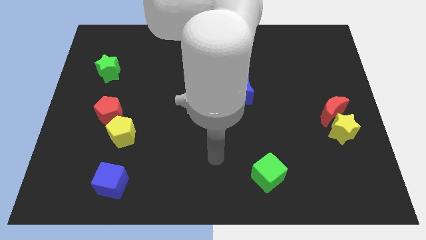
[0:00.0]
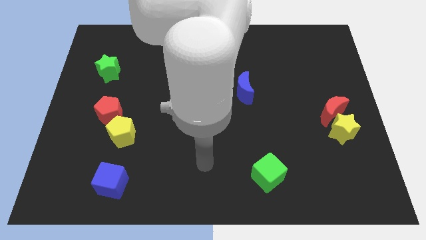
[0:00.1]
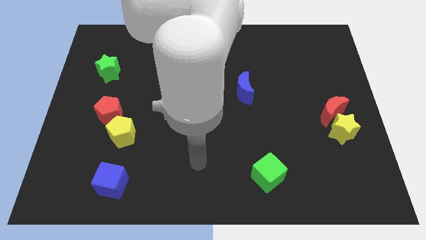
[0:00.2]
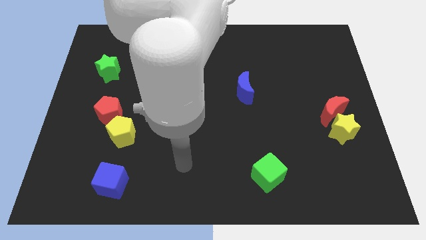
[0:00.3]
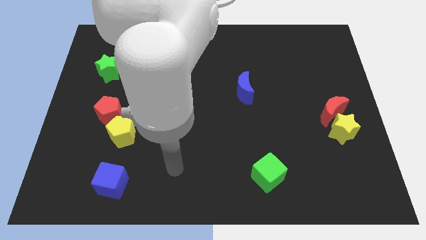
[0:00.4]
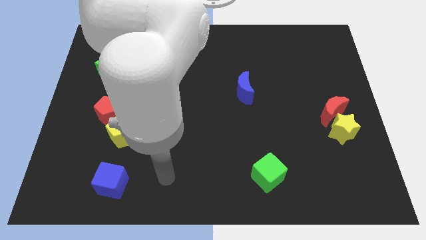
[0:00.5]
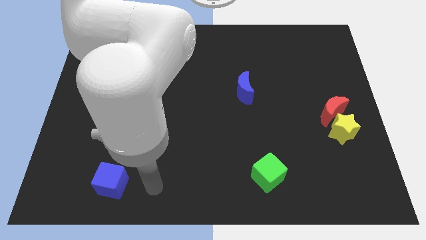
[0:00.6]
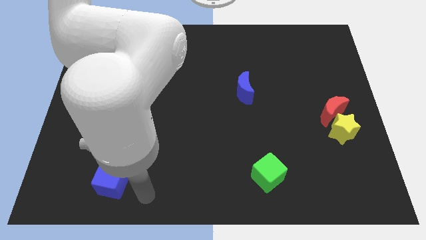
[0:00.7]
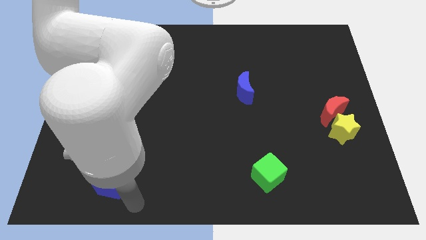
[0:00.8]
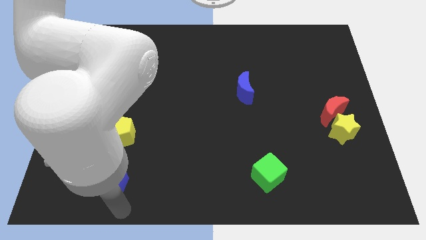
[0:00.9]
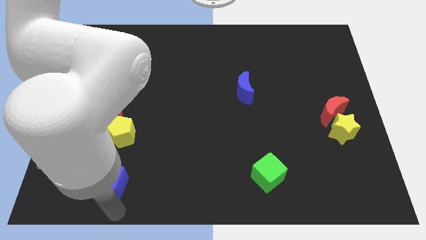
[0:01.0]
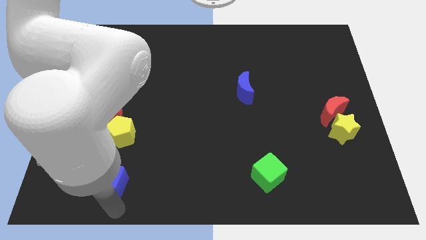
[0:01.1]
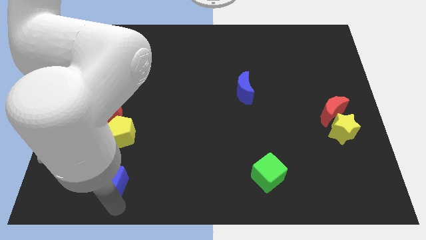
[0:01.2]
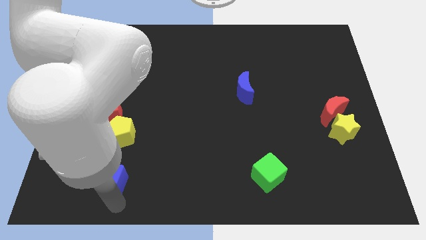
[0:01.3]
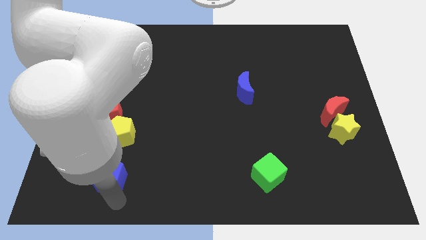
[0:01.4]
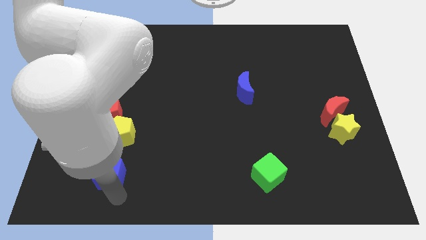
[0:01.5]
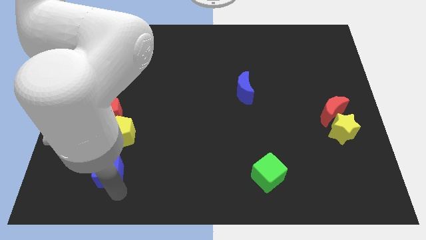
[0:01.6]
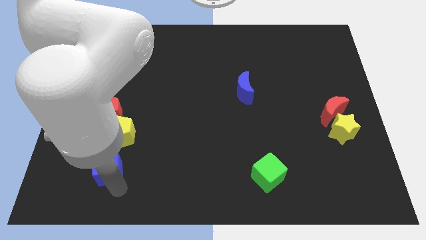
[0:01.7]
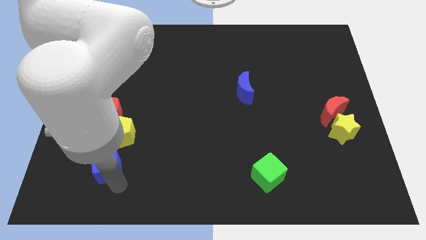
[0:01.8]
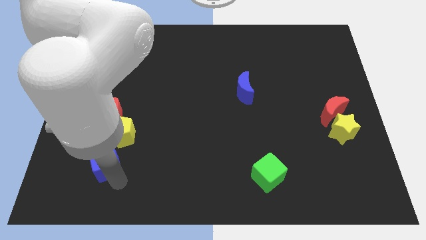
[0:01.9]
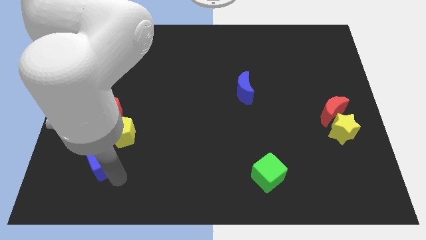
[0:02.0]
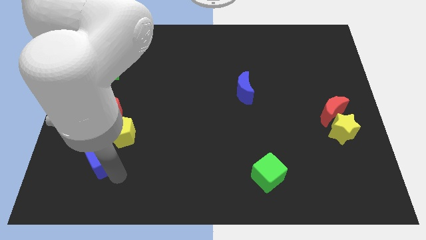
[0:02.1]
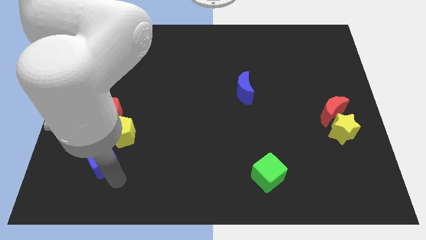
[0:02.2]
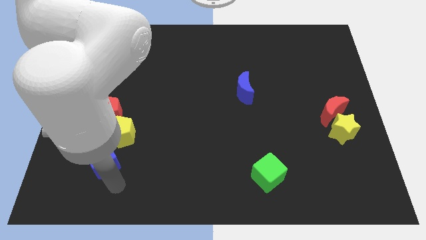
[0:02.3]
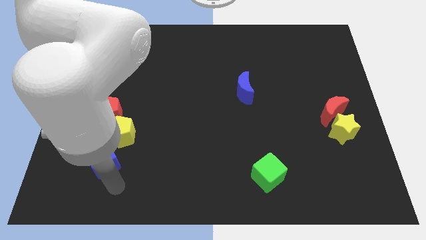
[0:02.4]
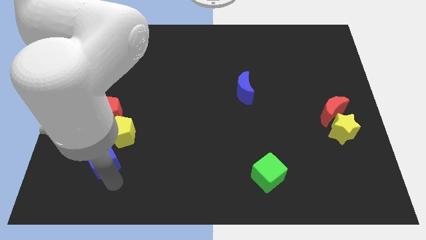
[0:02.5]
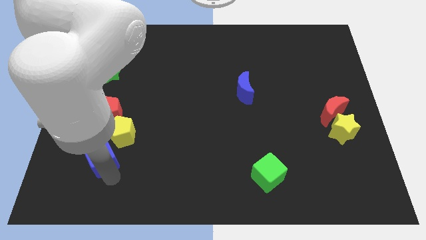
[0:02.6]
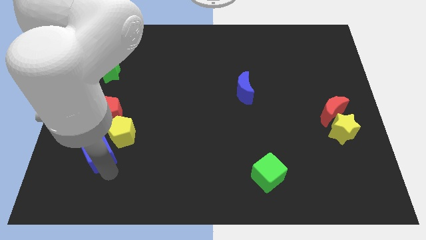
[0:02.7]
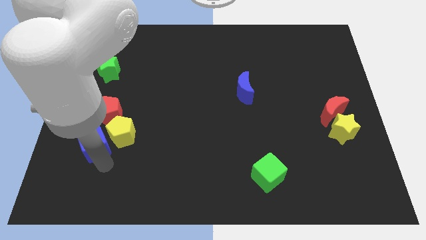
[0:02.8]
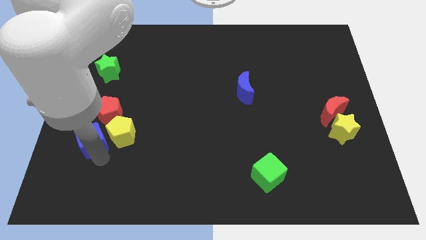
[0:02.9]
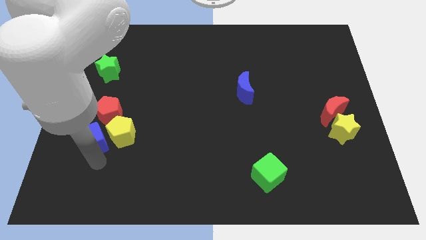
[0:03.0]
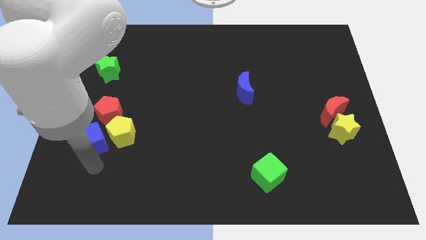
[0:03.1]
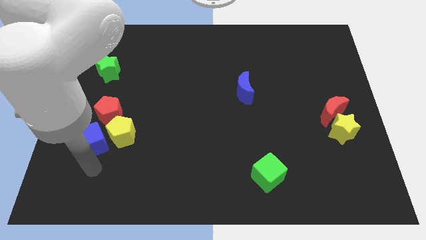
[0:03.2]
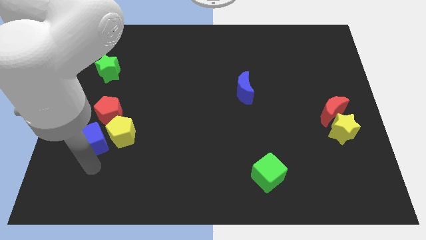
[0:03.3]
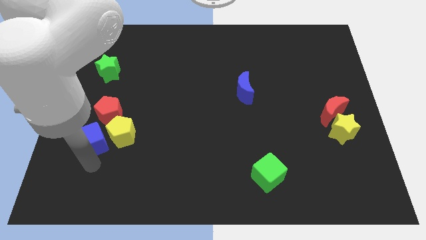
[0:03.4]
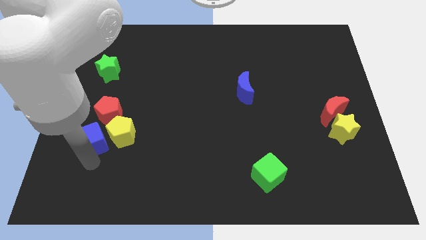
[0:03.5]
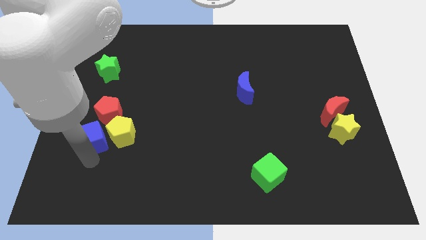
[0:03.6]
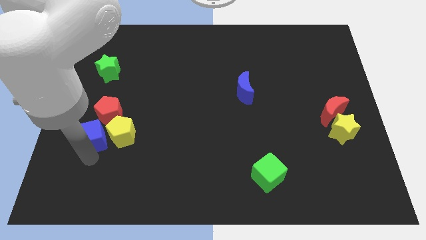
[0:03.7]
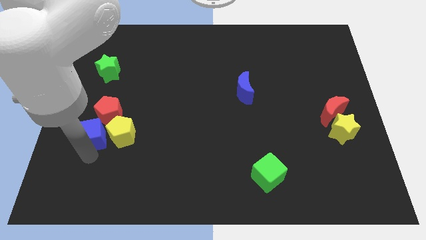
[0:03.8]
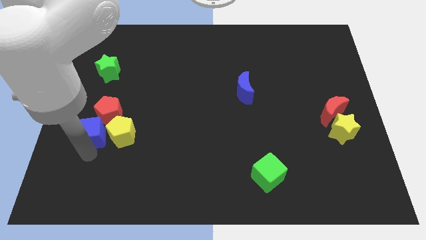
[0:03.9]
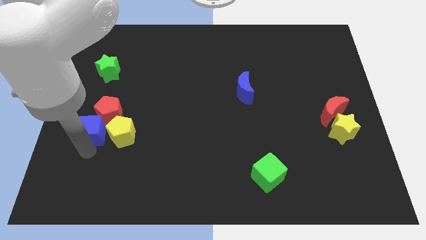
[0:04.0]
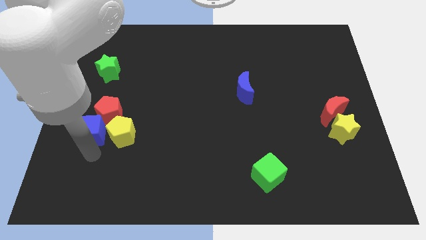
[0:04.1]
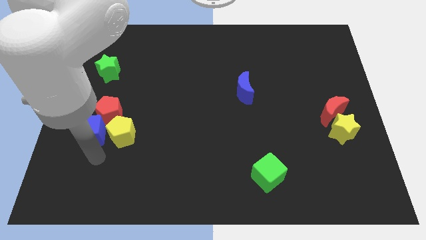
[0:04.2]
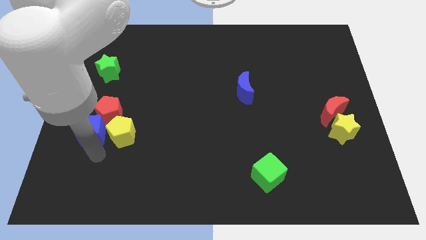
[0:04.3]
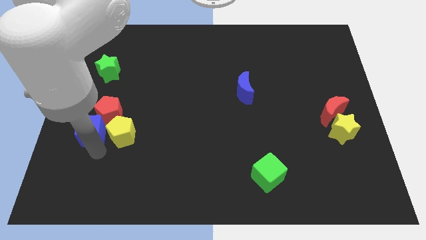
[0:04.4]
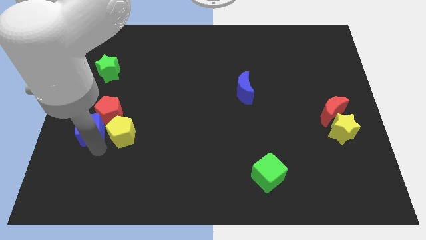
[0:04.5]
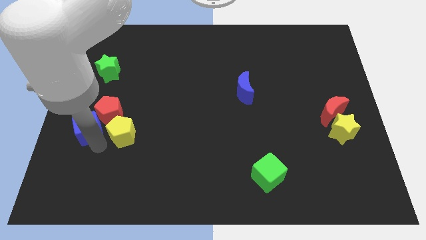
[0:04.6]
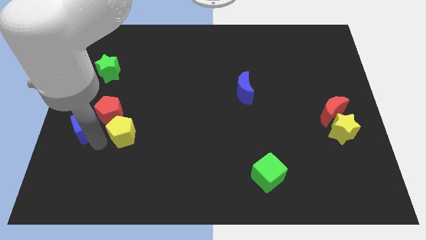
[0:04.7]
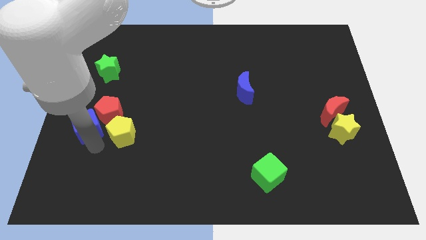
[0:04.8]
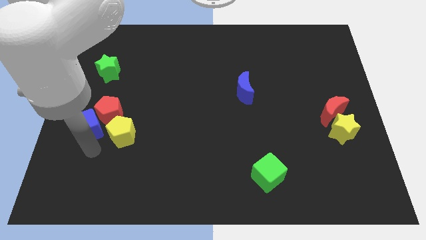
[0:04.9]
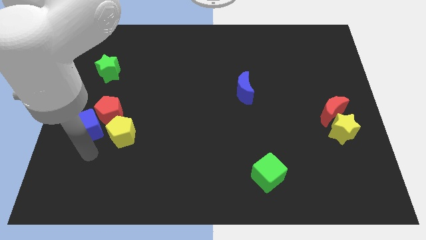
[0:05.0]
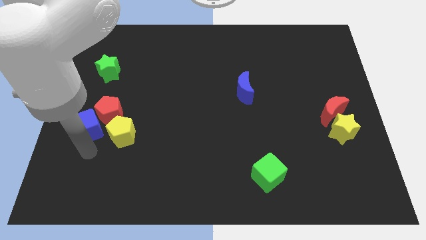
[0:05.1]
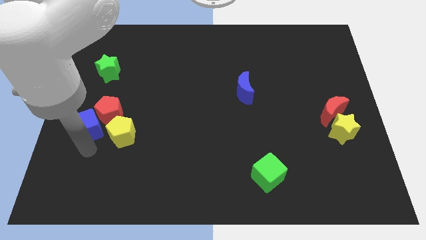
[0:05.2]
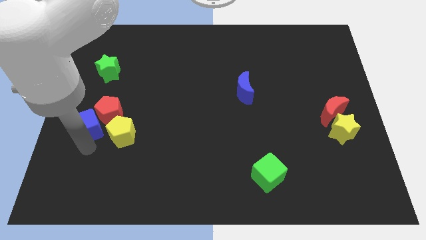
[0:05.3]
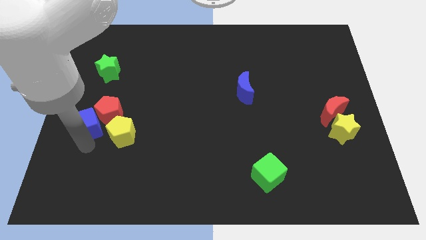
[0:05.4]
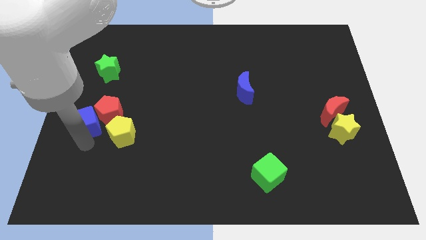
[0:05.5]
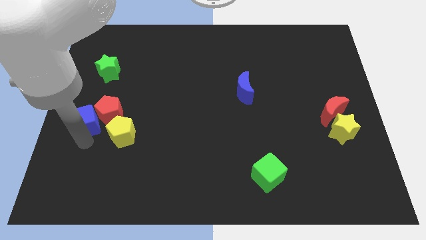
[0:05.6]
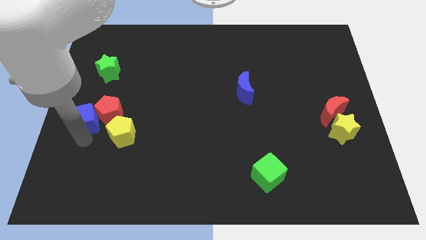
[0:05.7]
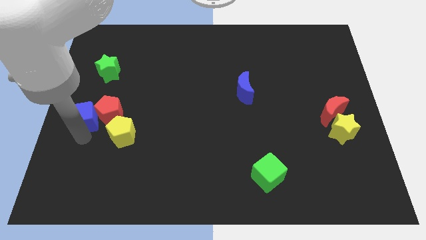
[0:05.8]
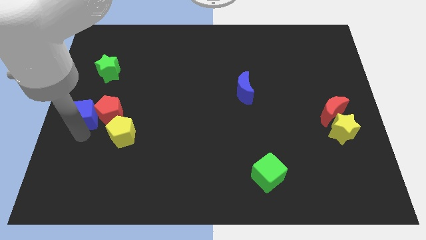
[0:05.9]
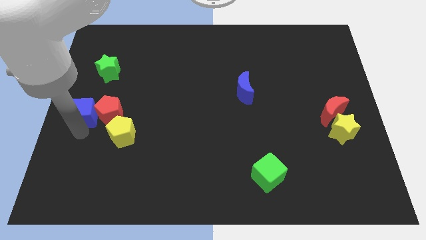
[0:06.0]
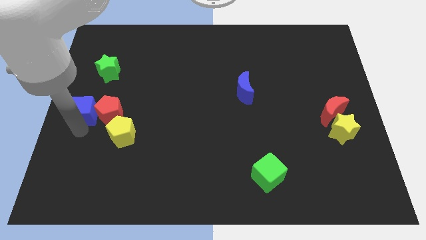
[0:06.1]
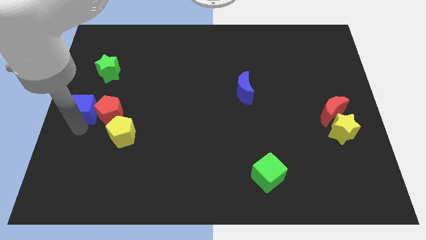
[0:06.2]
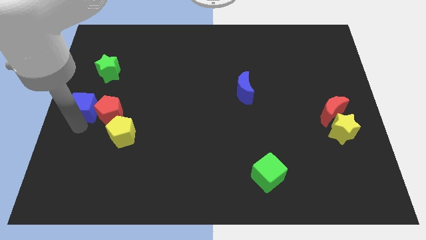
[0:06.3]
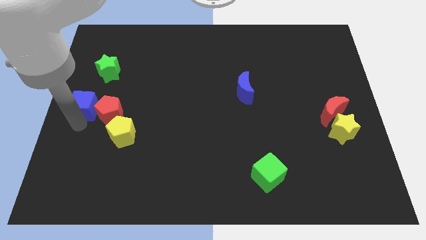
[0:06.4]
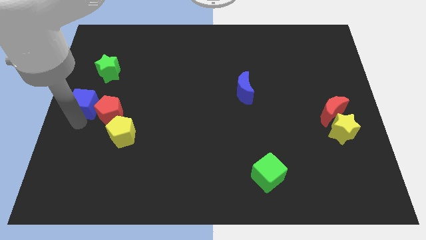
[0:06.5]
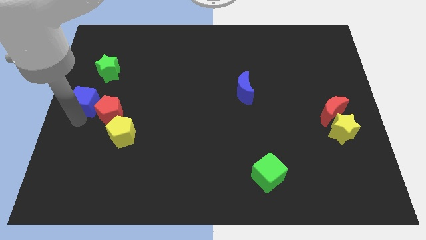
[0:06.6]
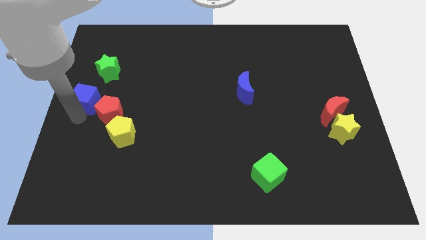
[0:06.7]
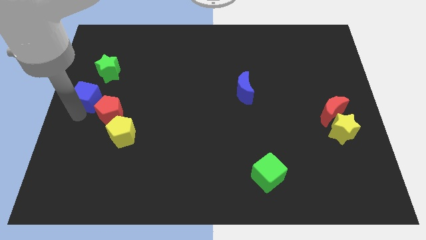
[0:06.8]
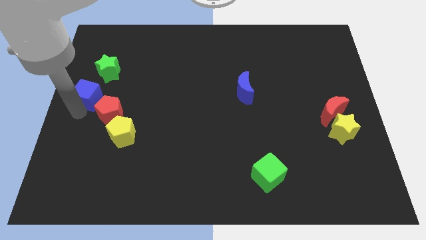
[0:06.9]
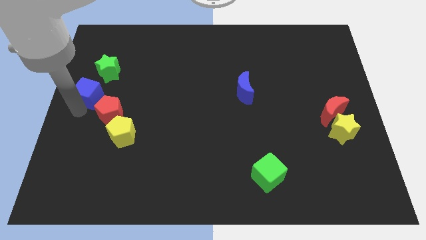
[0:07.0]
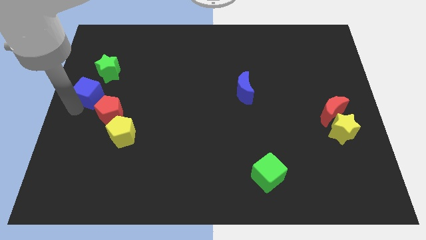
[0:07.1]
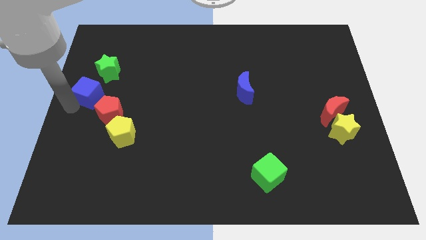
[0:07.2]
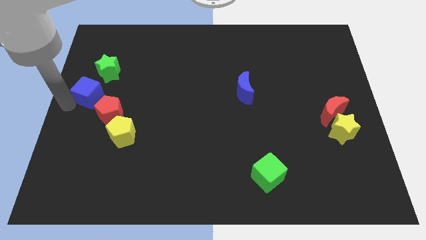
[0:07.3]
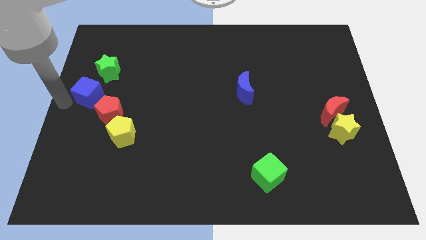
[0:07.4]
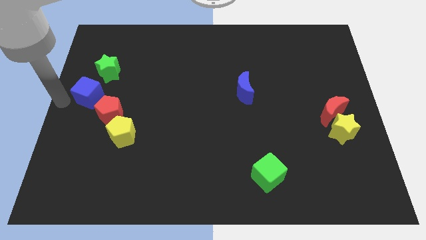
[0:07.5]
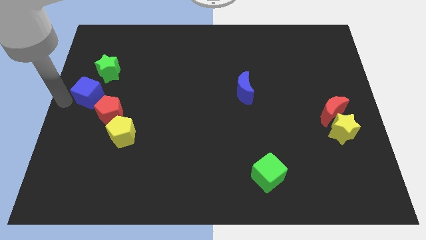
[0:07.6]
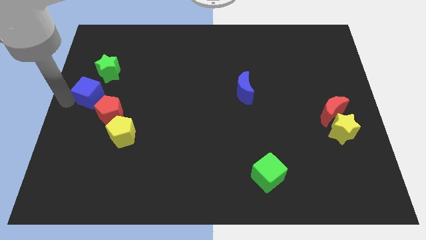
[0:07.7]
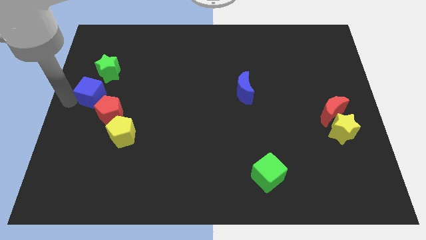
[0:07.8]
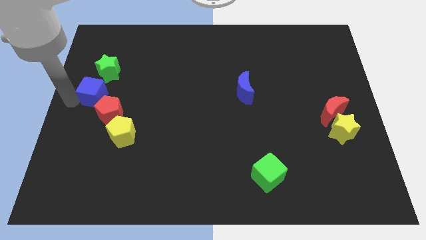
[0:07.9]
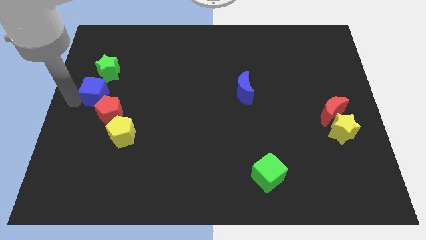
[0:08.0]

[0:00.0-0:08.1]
put the blue cube to the top side of the red pentagon
